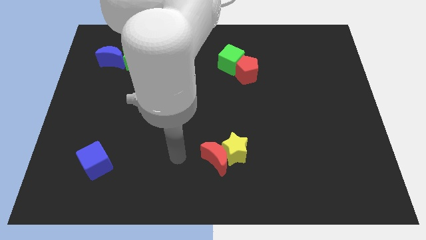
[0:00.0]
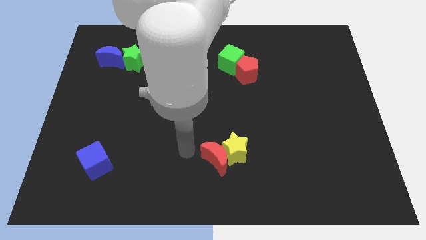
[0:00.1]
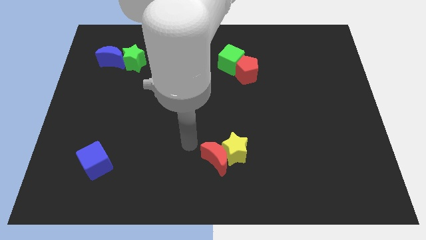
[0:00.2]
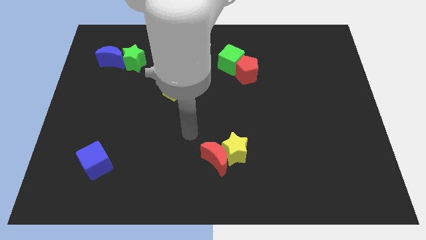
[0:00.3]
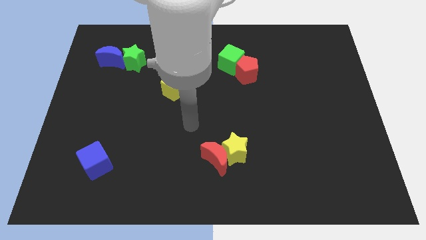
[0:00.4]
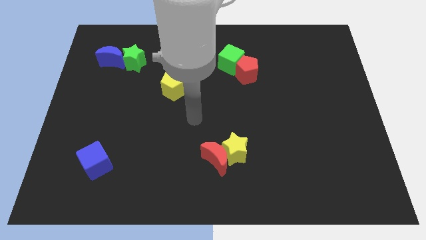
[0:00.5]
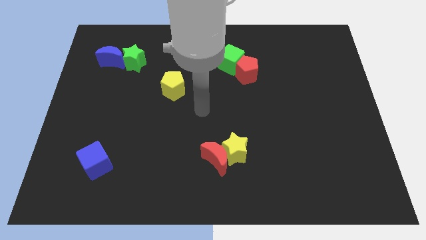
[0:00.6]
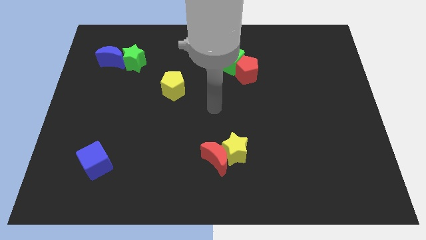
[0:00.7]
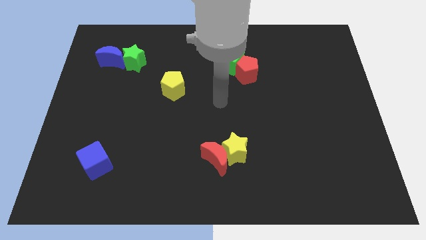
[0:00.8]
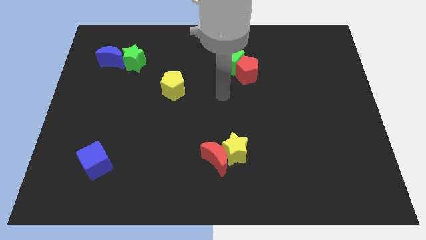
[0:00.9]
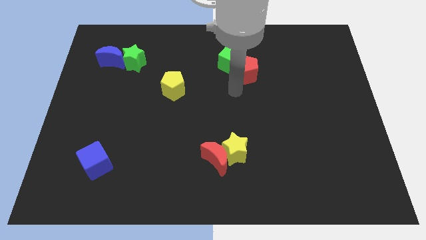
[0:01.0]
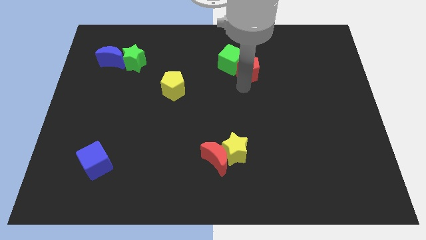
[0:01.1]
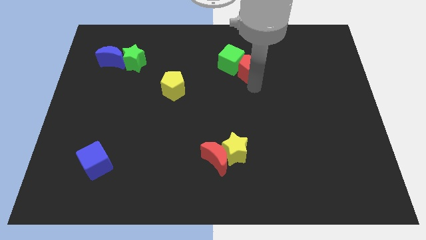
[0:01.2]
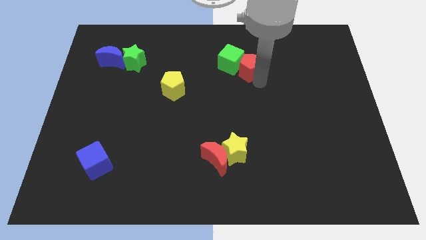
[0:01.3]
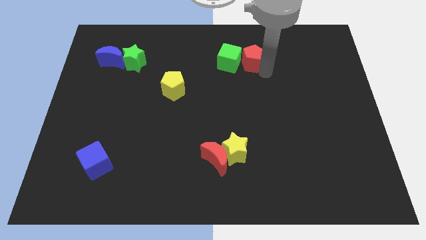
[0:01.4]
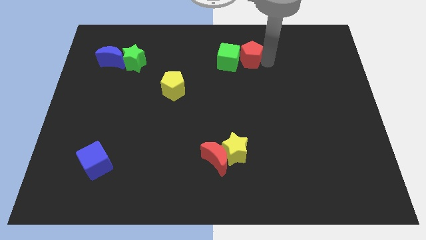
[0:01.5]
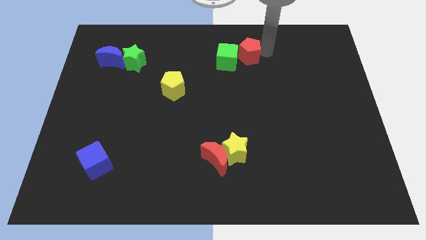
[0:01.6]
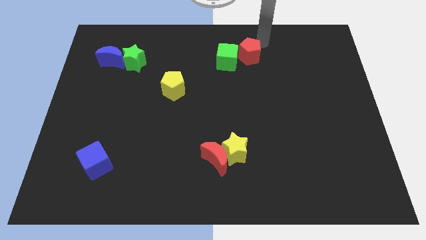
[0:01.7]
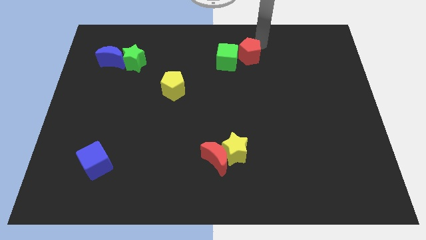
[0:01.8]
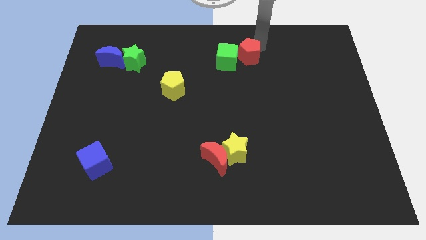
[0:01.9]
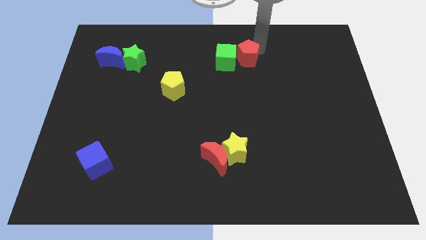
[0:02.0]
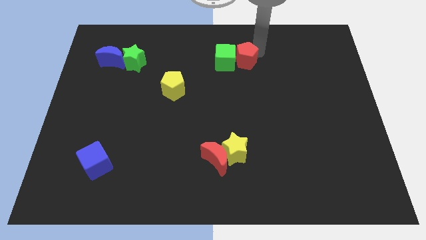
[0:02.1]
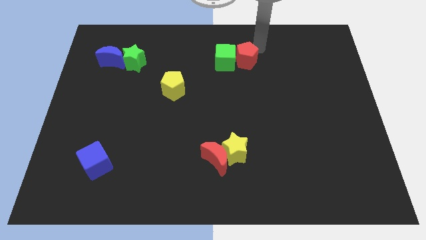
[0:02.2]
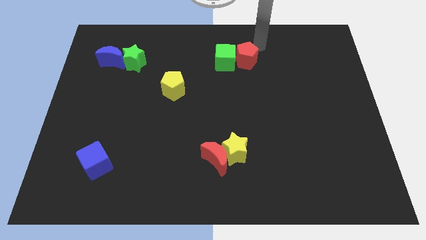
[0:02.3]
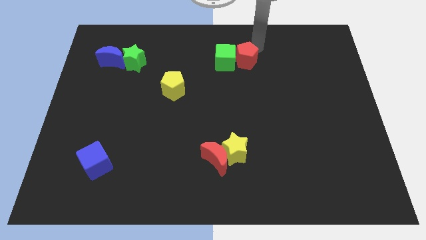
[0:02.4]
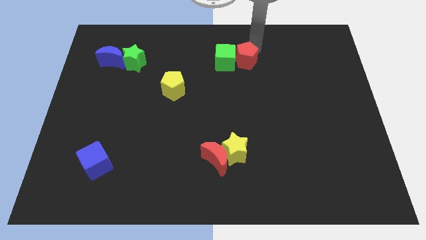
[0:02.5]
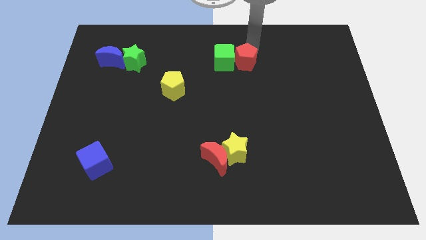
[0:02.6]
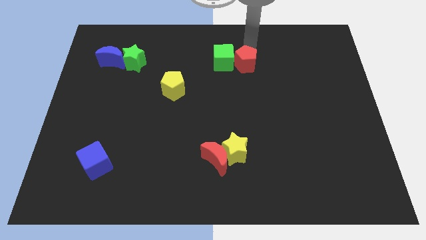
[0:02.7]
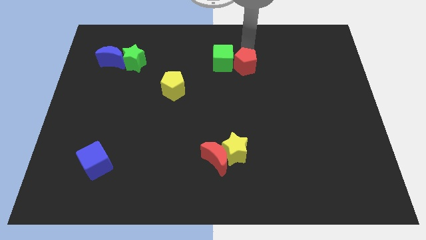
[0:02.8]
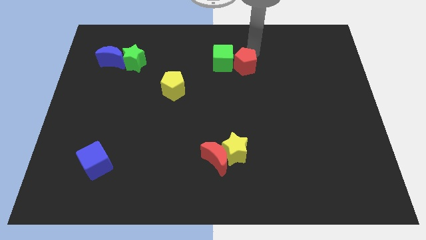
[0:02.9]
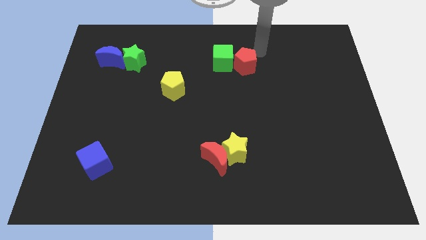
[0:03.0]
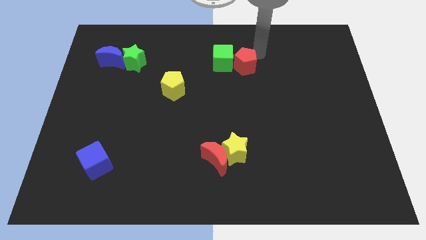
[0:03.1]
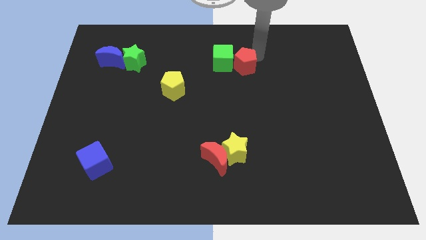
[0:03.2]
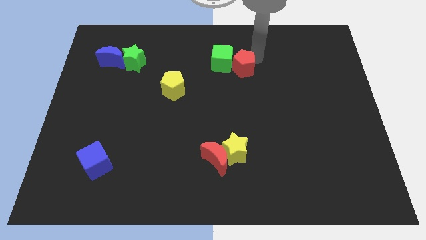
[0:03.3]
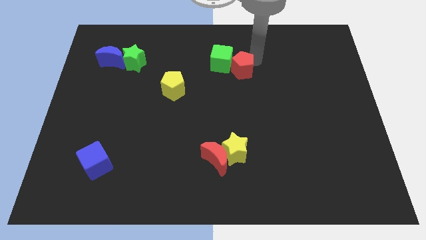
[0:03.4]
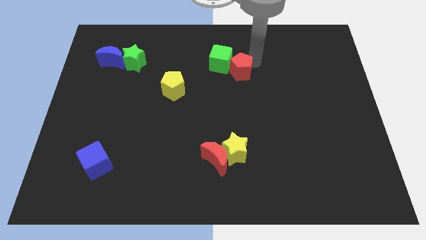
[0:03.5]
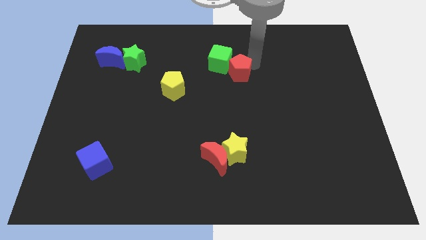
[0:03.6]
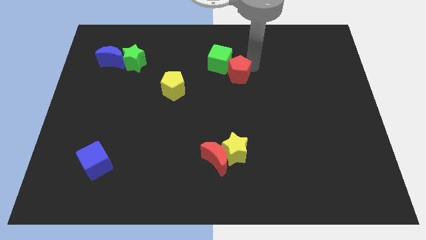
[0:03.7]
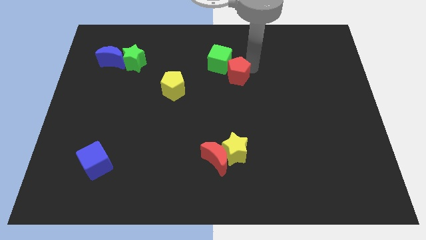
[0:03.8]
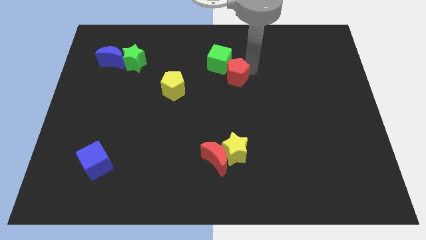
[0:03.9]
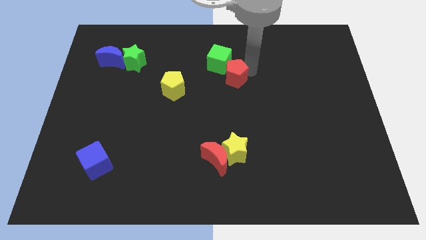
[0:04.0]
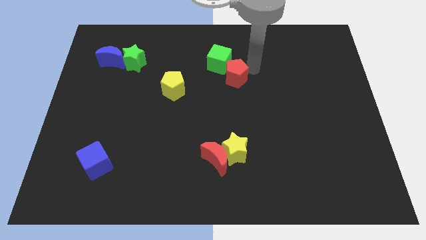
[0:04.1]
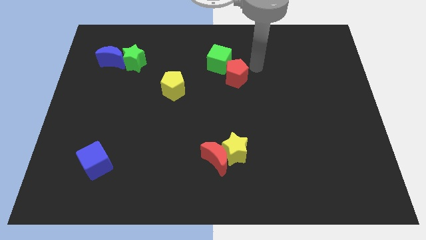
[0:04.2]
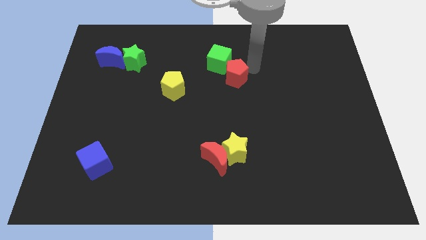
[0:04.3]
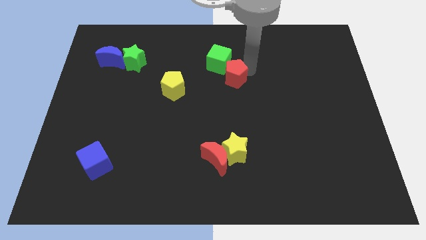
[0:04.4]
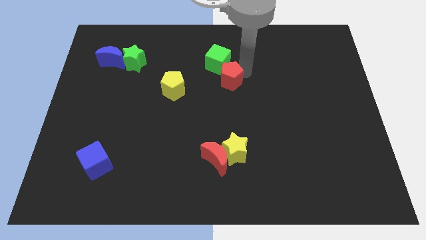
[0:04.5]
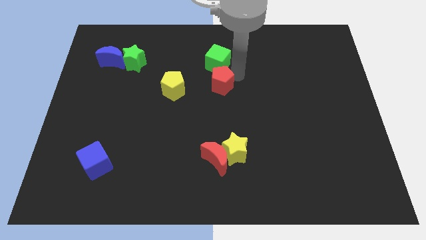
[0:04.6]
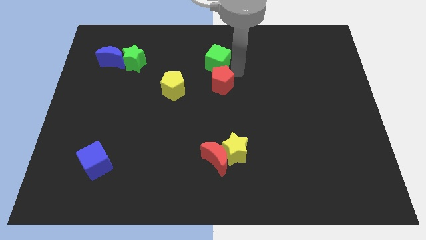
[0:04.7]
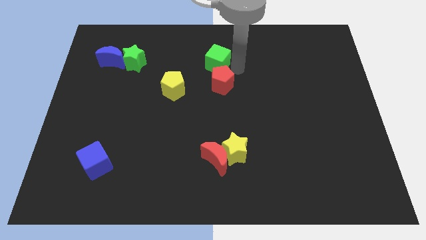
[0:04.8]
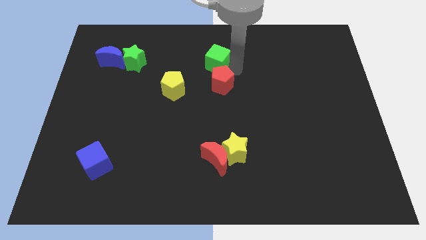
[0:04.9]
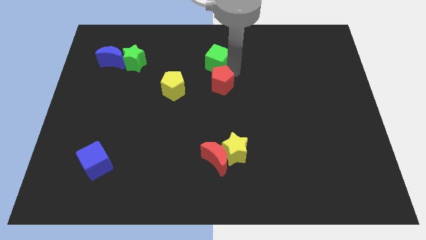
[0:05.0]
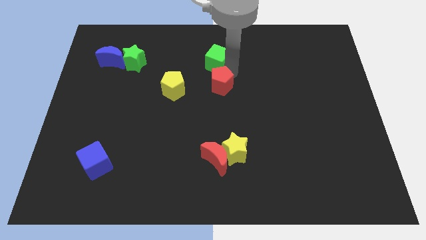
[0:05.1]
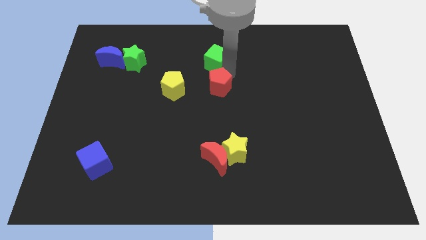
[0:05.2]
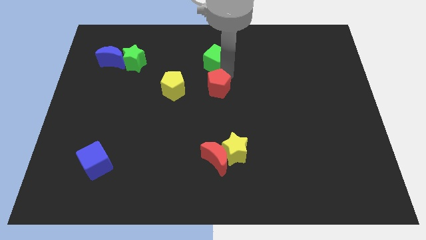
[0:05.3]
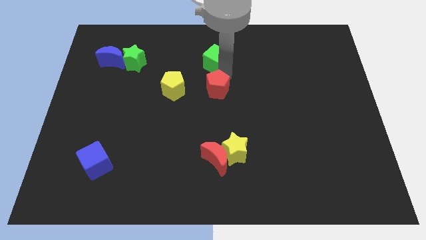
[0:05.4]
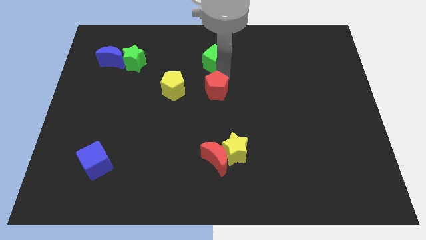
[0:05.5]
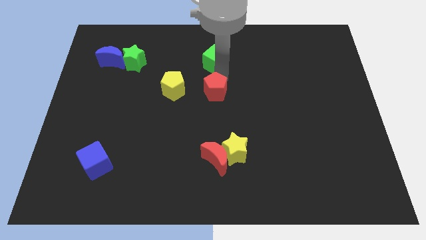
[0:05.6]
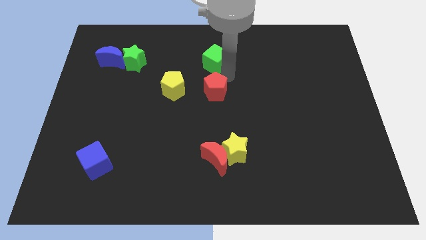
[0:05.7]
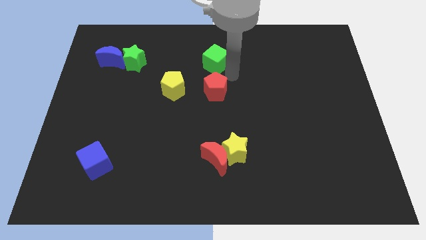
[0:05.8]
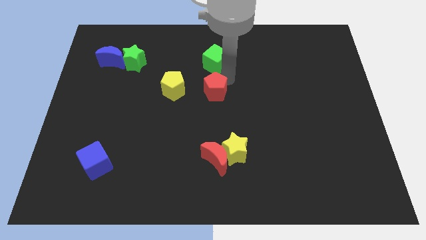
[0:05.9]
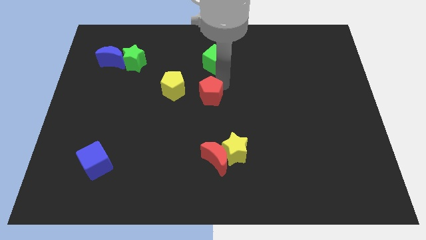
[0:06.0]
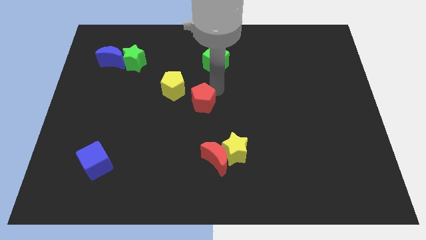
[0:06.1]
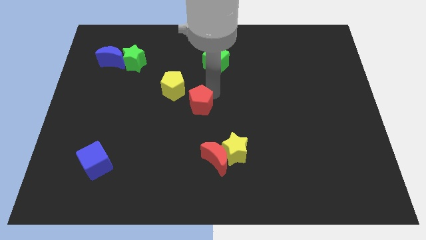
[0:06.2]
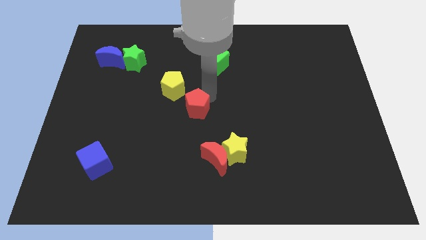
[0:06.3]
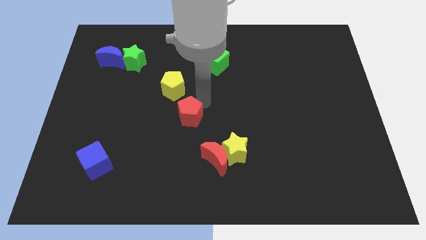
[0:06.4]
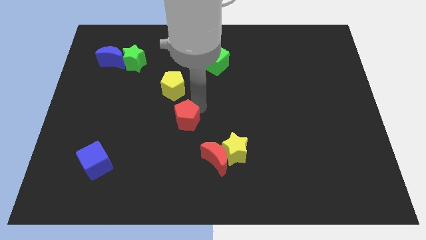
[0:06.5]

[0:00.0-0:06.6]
move the red pentagon down and left

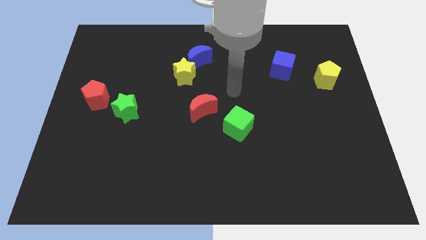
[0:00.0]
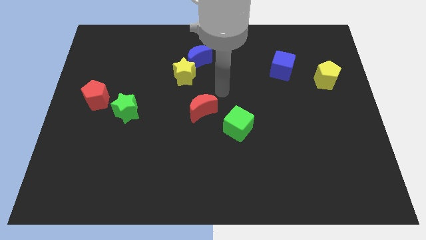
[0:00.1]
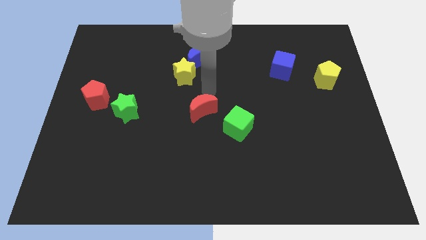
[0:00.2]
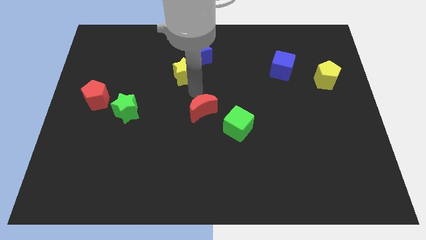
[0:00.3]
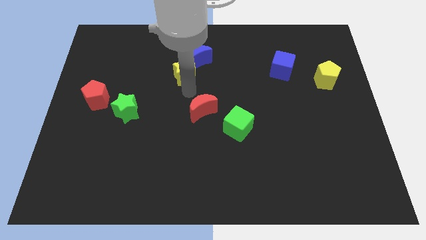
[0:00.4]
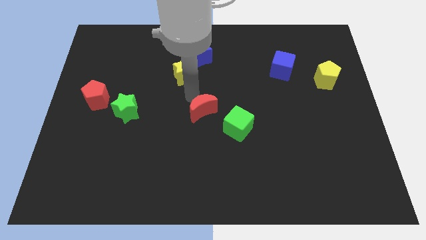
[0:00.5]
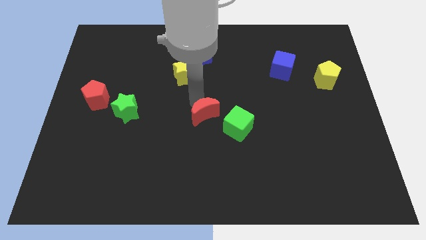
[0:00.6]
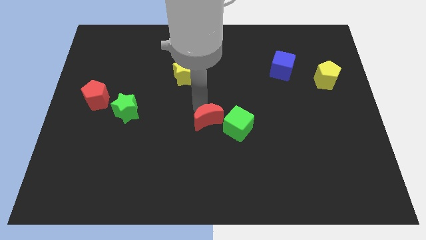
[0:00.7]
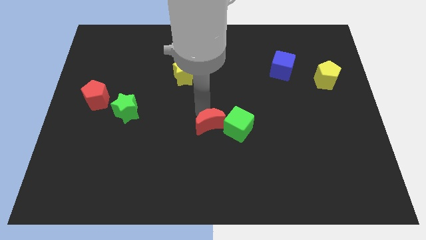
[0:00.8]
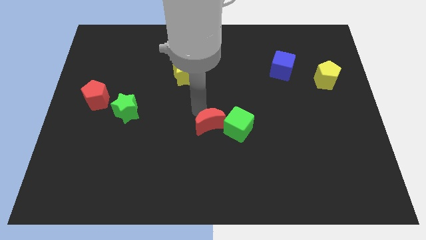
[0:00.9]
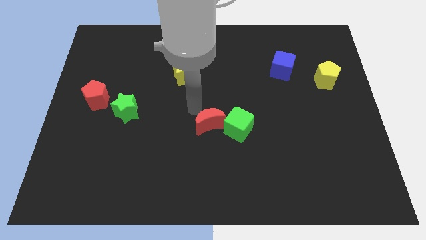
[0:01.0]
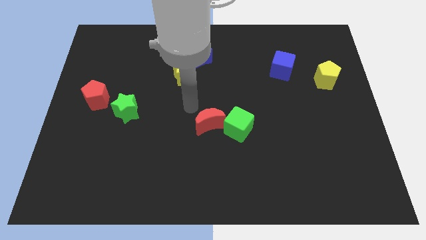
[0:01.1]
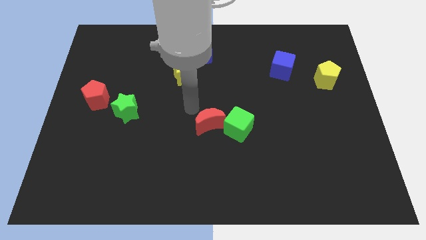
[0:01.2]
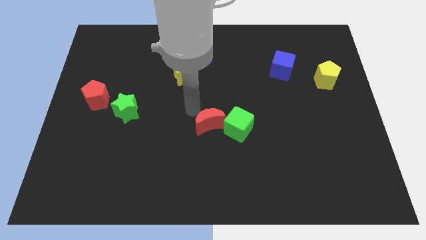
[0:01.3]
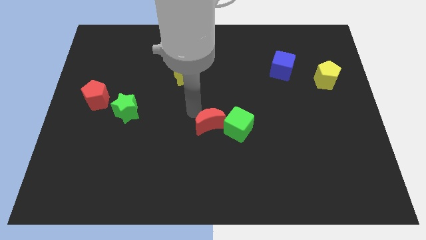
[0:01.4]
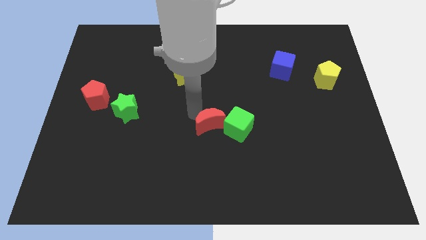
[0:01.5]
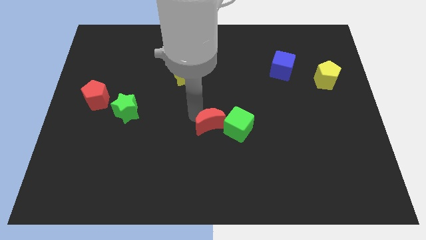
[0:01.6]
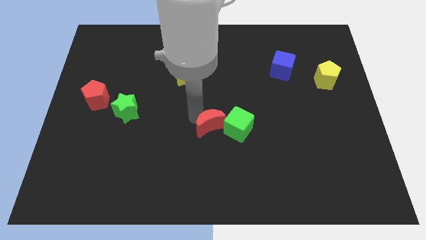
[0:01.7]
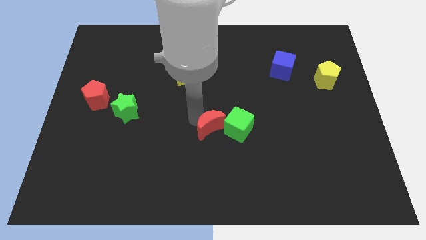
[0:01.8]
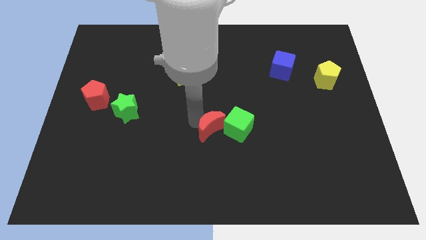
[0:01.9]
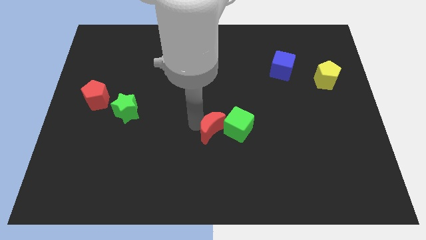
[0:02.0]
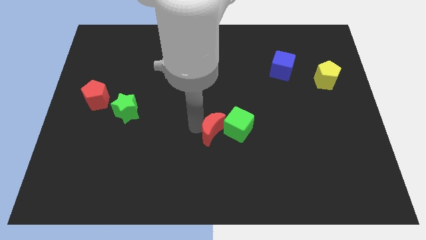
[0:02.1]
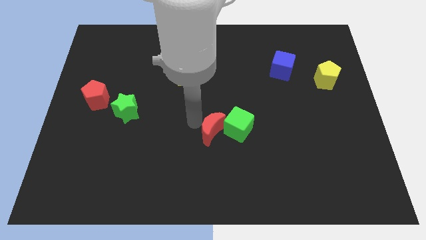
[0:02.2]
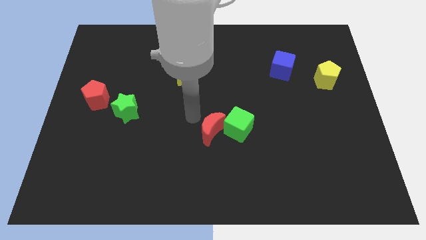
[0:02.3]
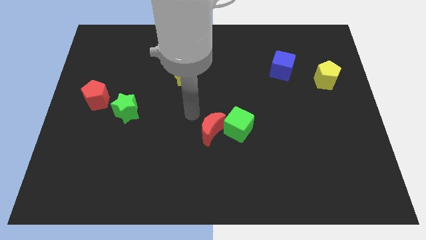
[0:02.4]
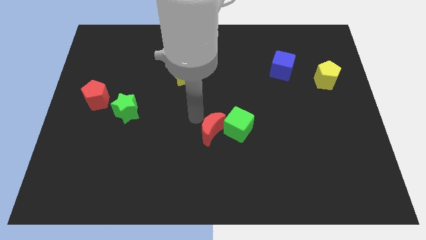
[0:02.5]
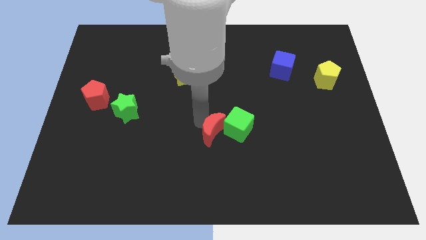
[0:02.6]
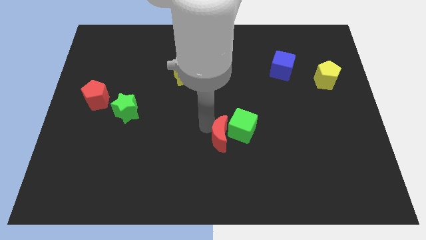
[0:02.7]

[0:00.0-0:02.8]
slightly slide the red moon diagonally down and to the right
